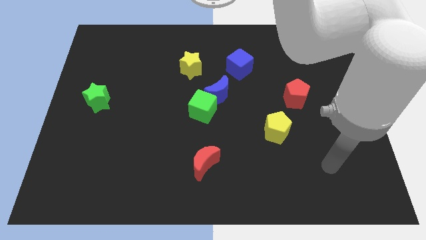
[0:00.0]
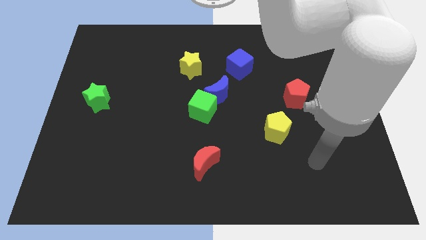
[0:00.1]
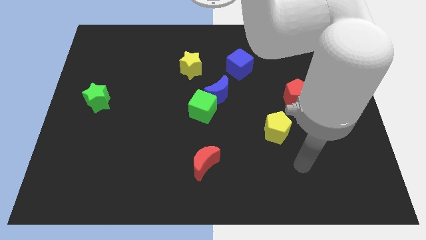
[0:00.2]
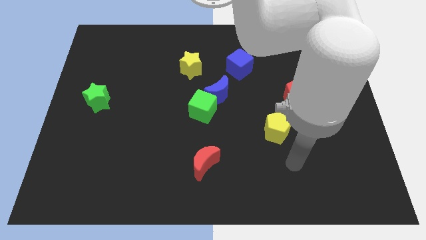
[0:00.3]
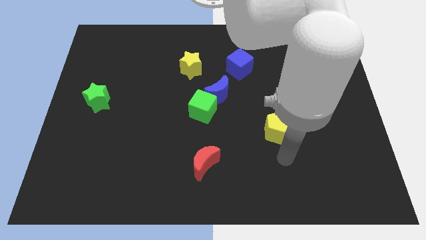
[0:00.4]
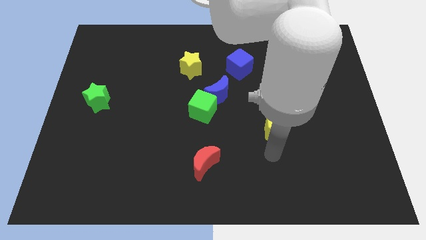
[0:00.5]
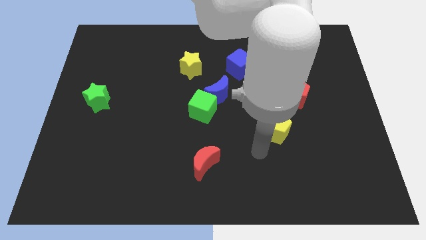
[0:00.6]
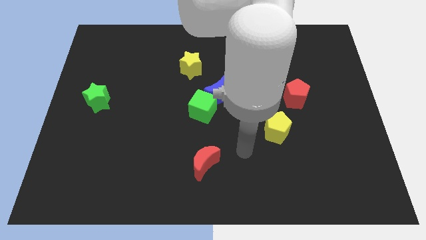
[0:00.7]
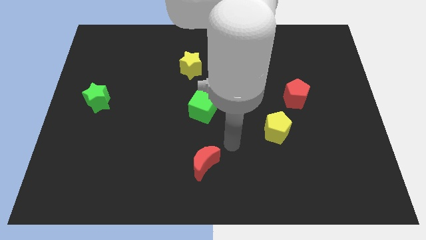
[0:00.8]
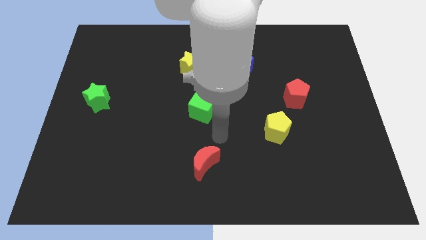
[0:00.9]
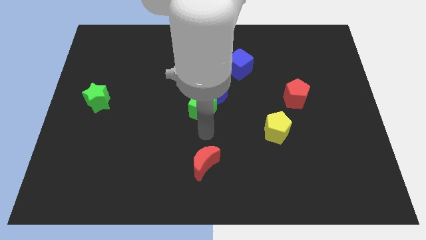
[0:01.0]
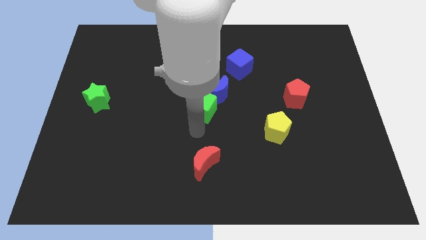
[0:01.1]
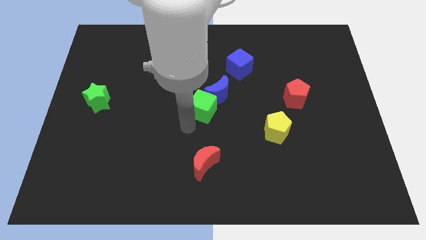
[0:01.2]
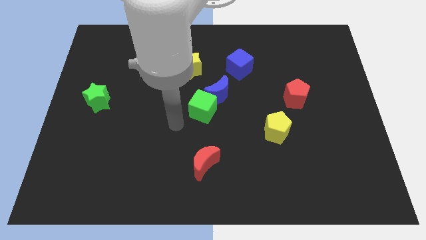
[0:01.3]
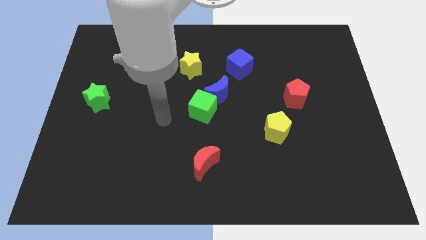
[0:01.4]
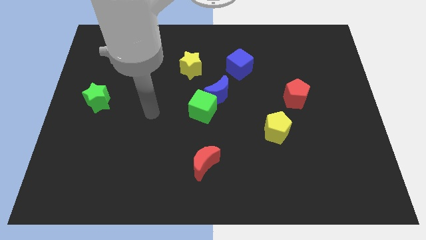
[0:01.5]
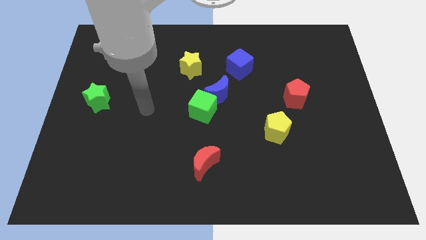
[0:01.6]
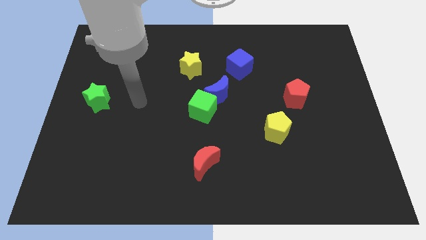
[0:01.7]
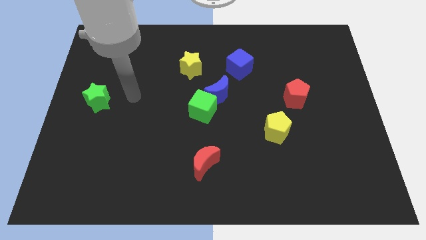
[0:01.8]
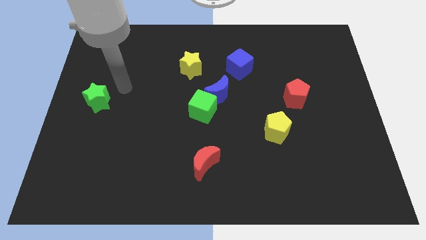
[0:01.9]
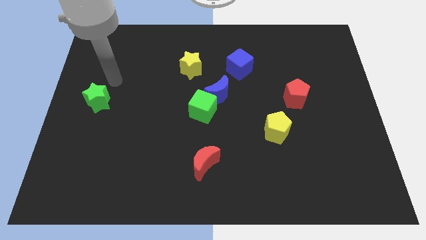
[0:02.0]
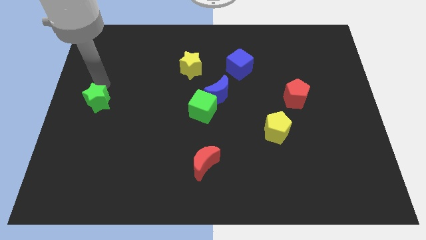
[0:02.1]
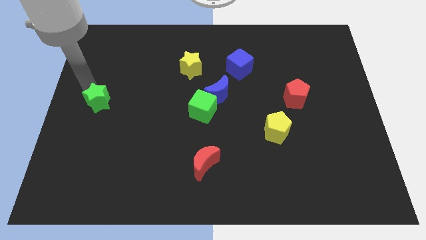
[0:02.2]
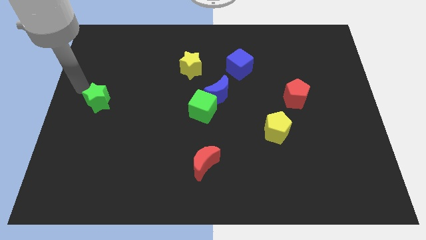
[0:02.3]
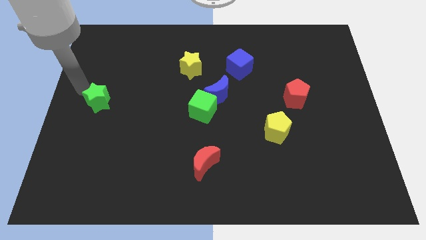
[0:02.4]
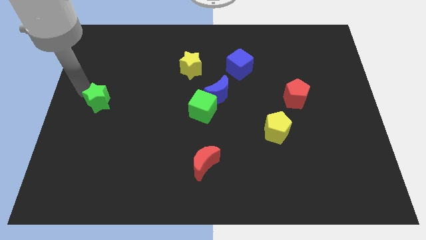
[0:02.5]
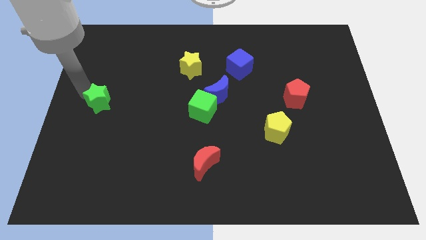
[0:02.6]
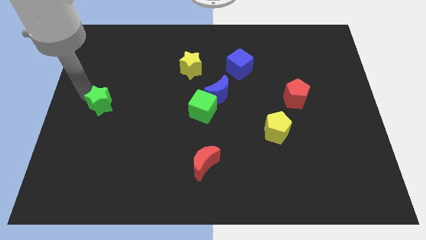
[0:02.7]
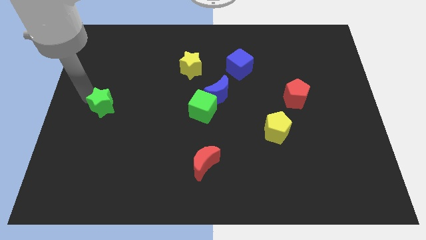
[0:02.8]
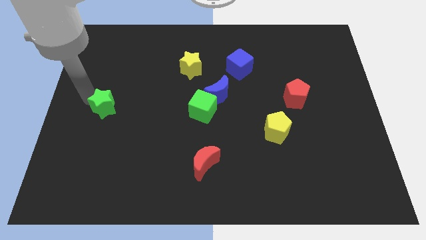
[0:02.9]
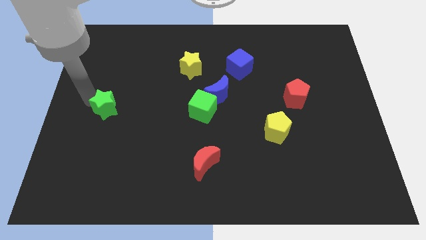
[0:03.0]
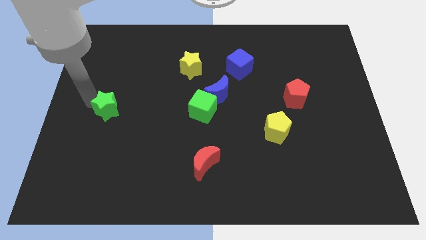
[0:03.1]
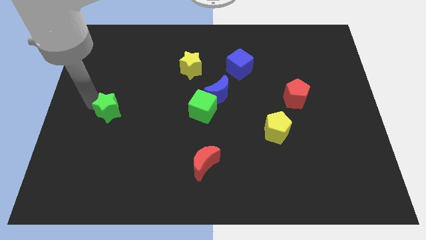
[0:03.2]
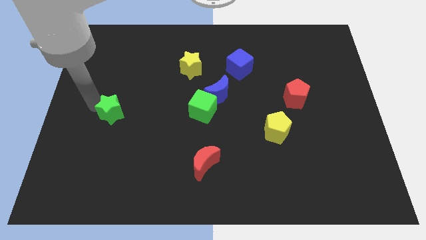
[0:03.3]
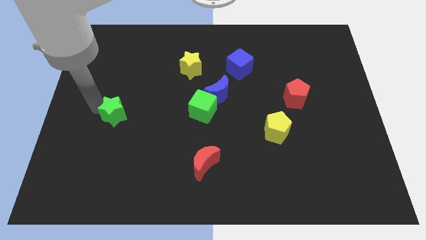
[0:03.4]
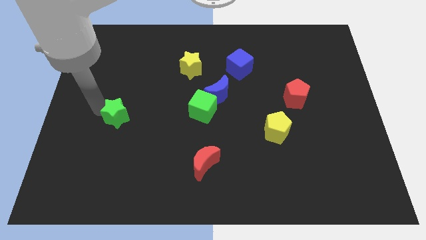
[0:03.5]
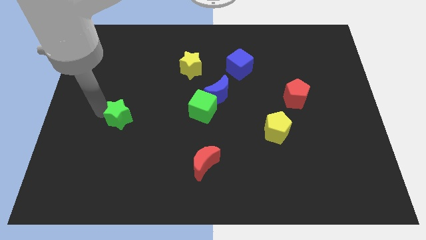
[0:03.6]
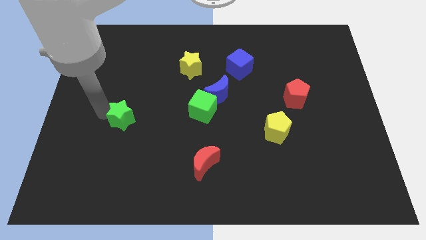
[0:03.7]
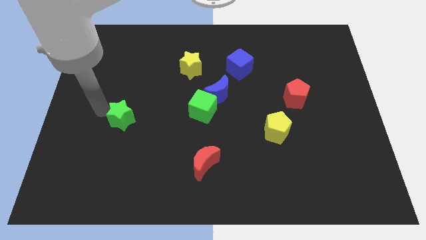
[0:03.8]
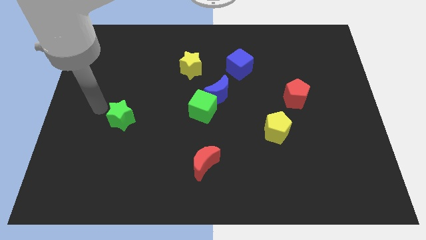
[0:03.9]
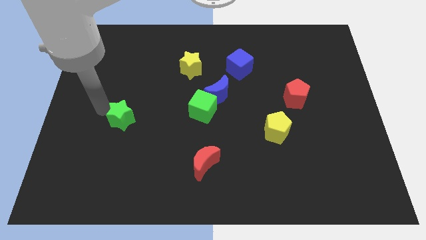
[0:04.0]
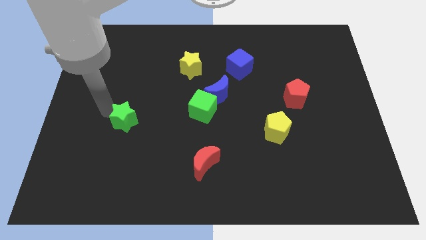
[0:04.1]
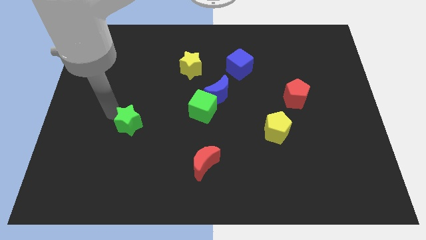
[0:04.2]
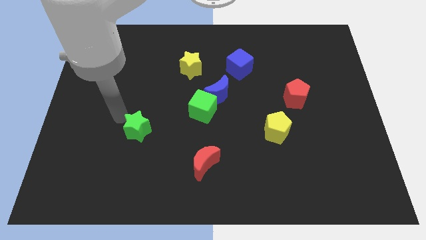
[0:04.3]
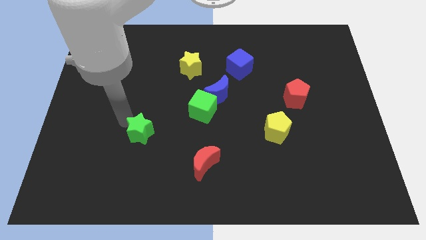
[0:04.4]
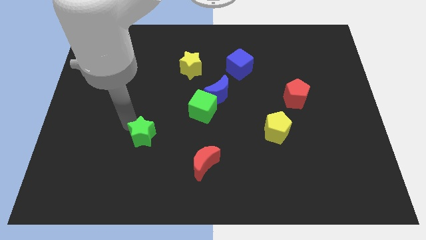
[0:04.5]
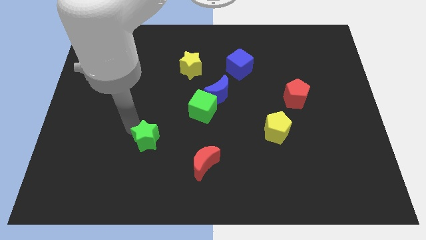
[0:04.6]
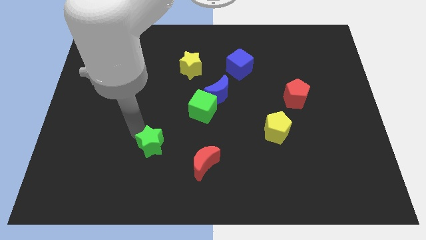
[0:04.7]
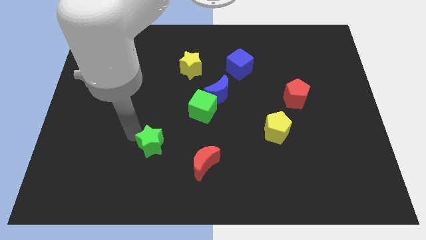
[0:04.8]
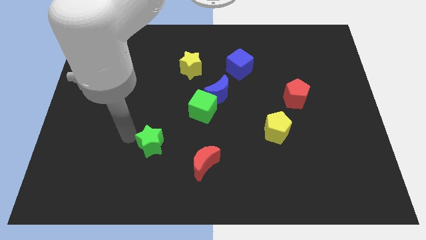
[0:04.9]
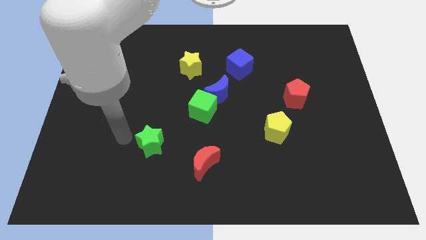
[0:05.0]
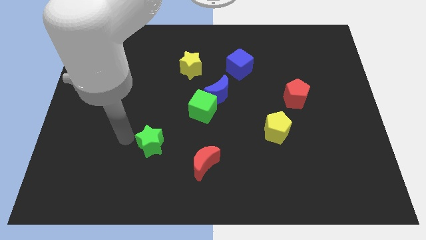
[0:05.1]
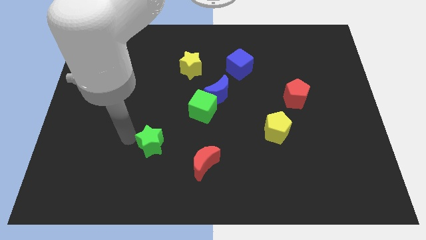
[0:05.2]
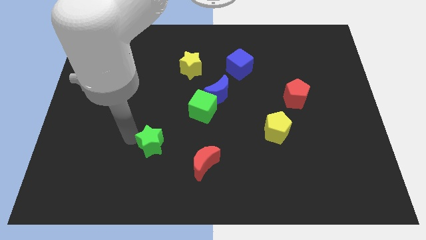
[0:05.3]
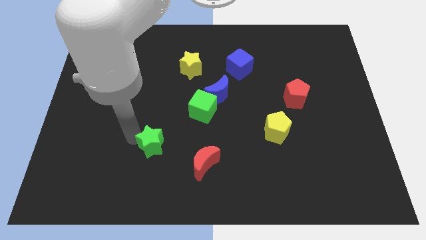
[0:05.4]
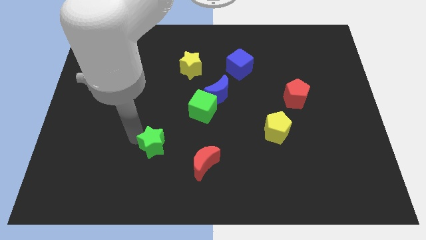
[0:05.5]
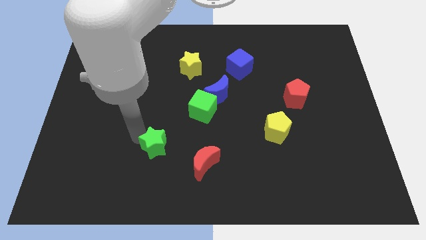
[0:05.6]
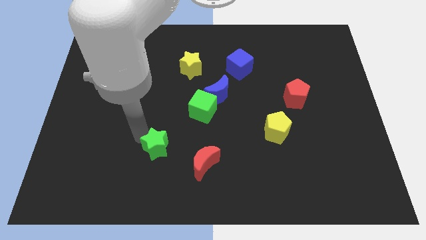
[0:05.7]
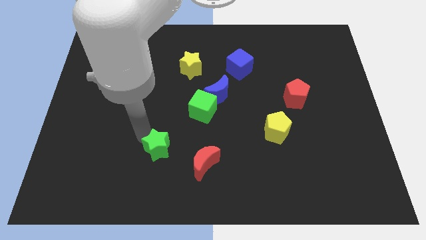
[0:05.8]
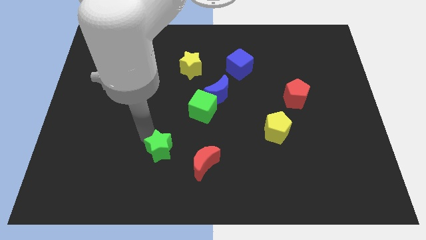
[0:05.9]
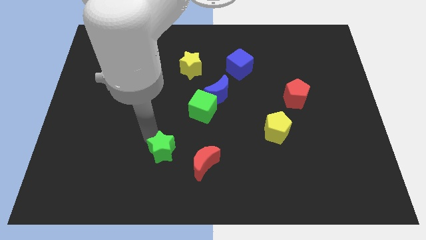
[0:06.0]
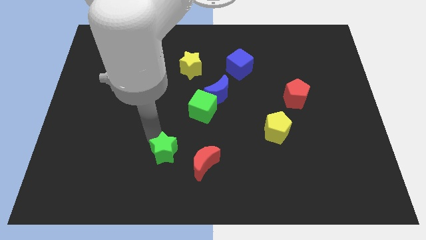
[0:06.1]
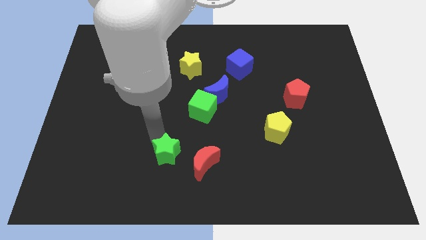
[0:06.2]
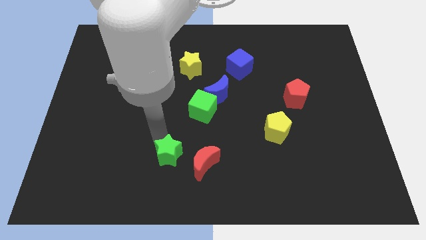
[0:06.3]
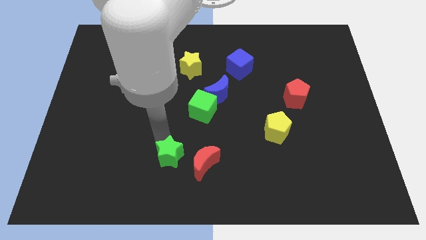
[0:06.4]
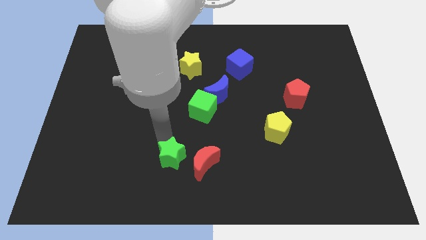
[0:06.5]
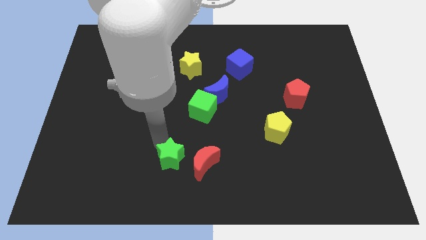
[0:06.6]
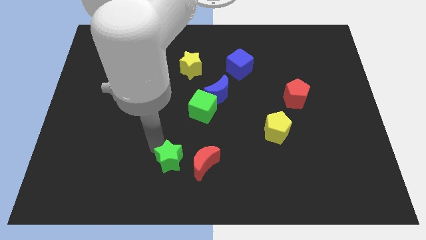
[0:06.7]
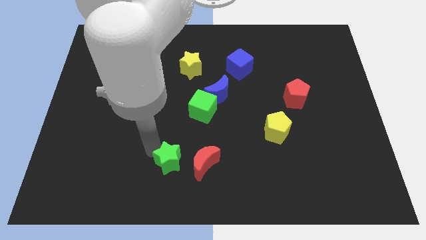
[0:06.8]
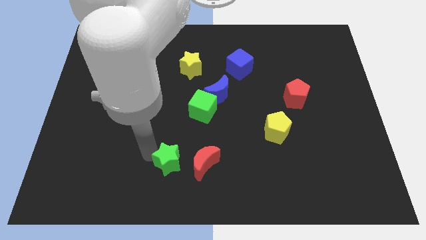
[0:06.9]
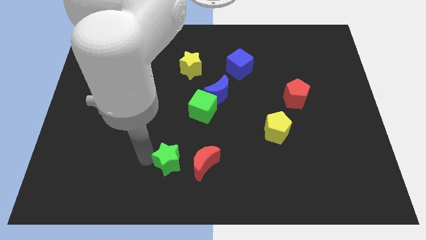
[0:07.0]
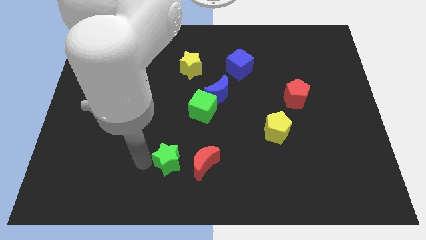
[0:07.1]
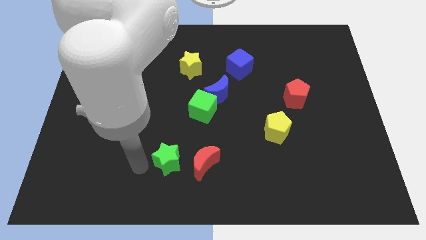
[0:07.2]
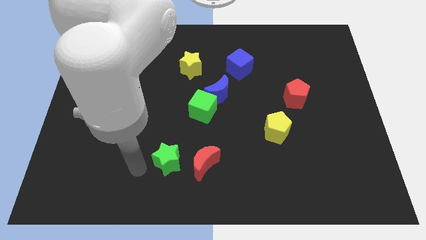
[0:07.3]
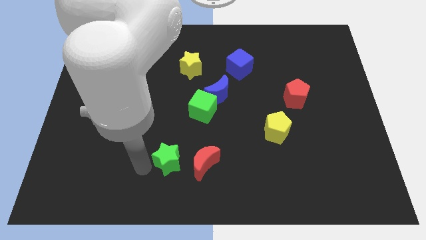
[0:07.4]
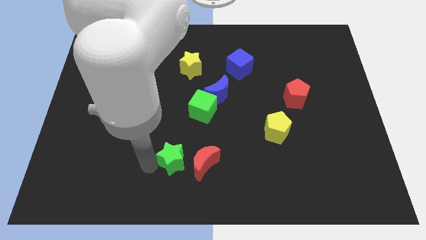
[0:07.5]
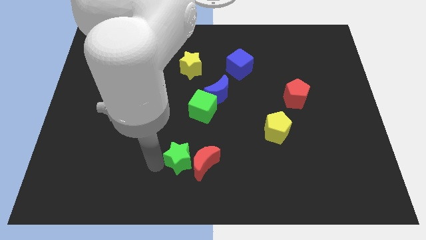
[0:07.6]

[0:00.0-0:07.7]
move the green star to the red moon
